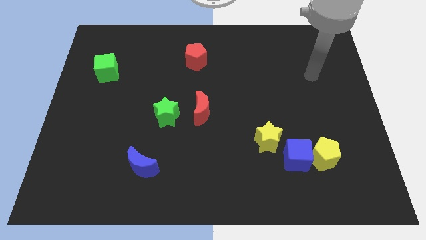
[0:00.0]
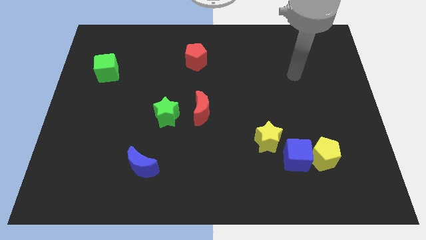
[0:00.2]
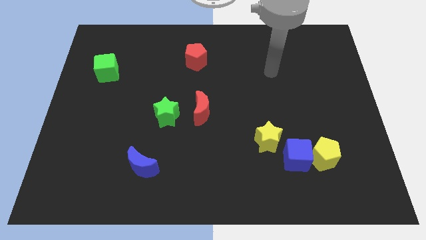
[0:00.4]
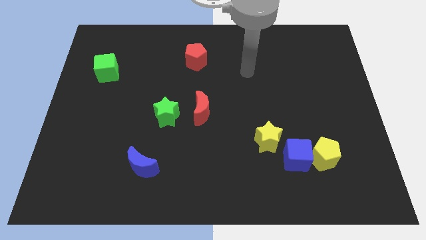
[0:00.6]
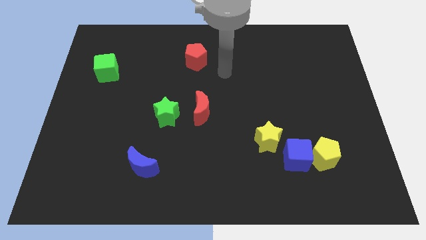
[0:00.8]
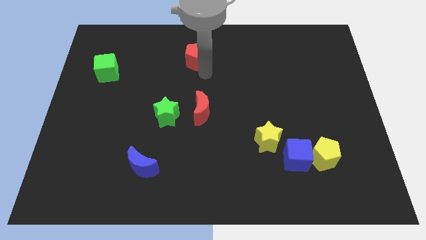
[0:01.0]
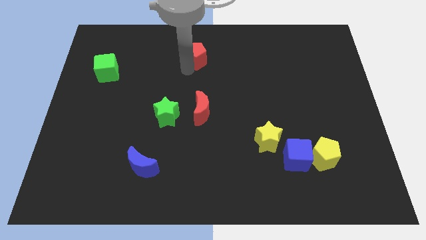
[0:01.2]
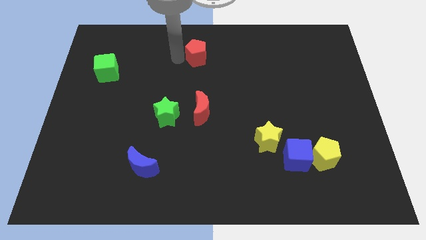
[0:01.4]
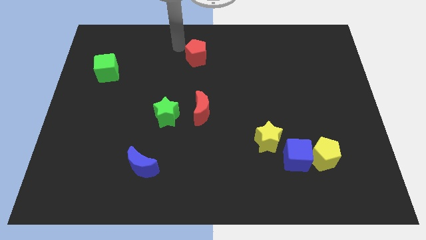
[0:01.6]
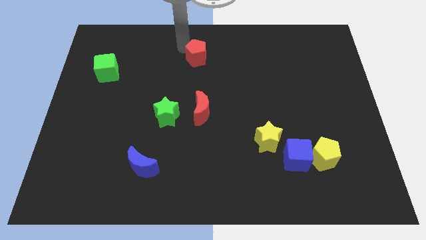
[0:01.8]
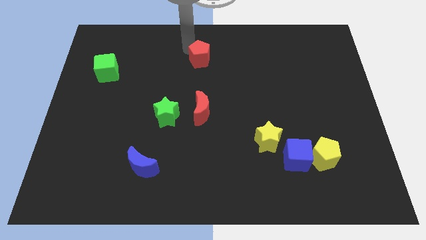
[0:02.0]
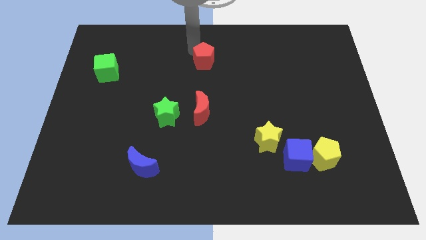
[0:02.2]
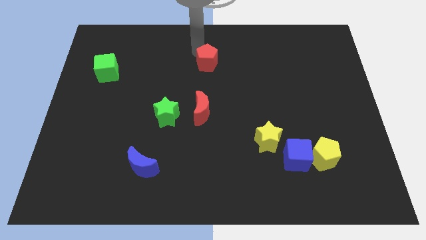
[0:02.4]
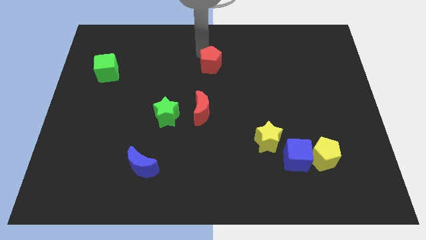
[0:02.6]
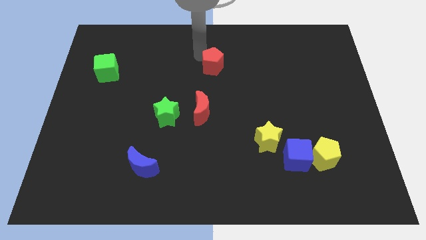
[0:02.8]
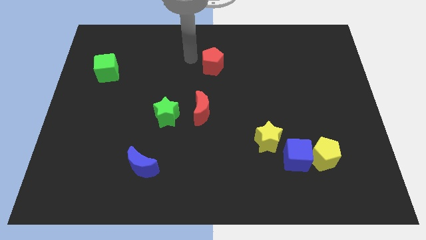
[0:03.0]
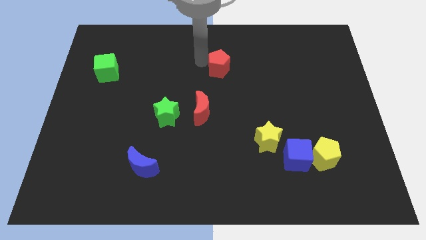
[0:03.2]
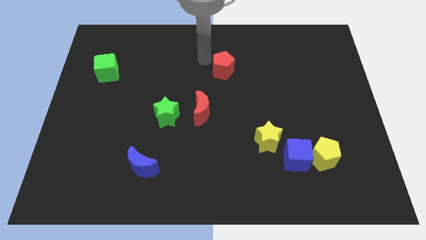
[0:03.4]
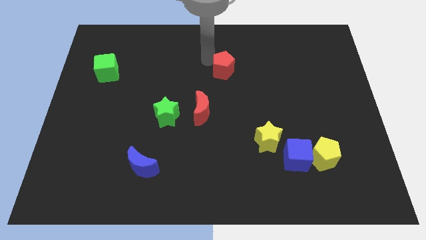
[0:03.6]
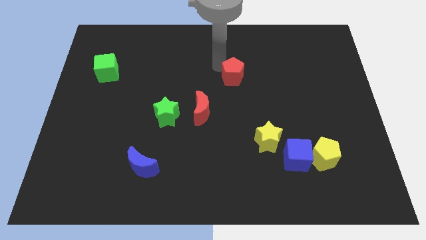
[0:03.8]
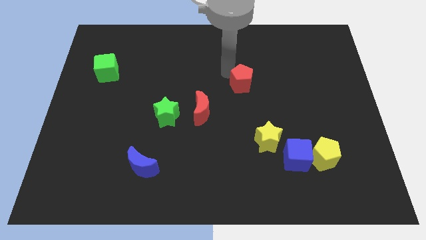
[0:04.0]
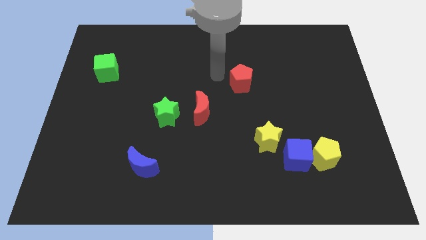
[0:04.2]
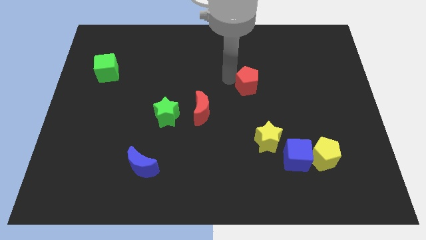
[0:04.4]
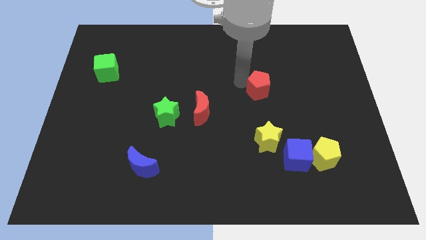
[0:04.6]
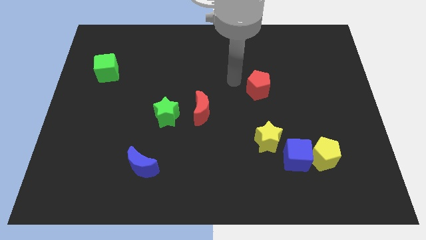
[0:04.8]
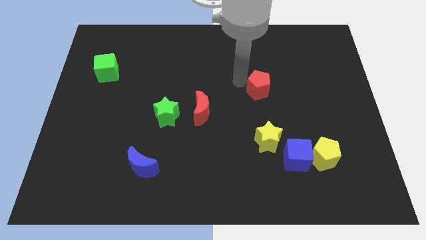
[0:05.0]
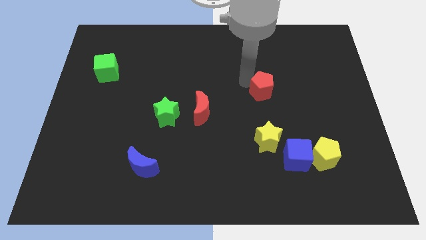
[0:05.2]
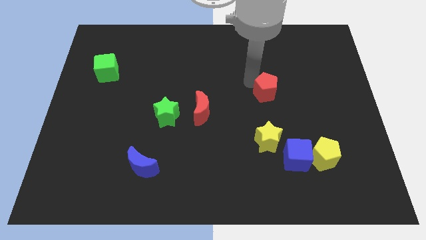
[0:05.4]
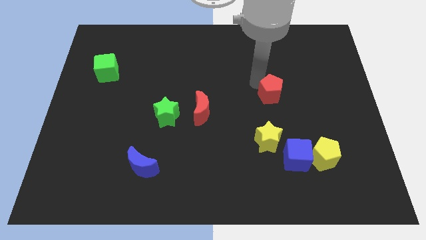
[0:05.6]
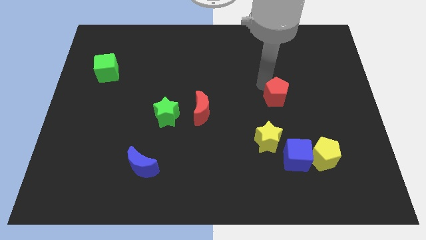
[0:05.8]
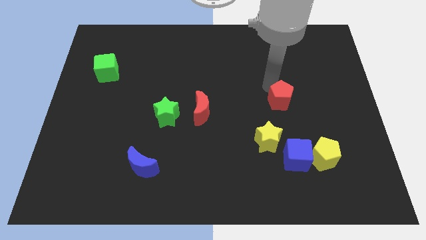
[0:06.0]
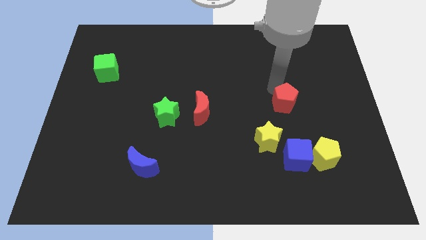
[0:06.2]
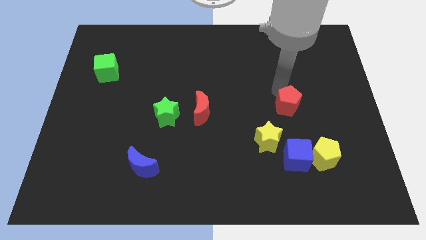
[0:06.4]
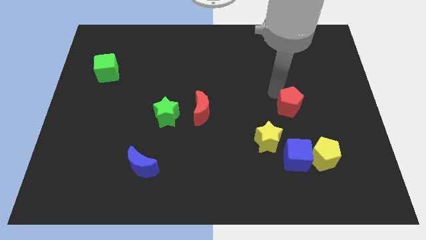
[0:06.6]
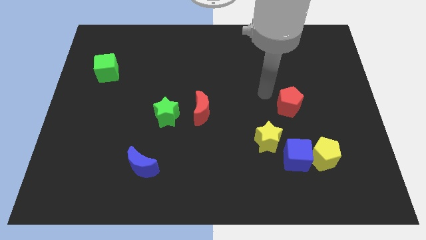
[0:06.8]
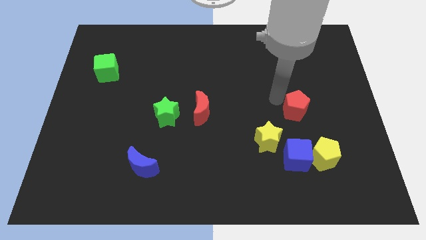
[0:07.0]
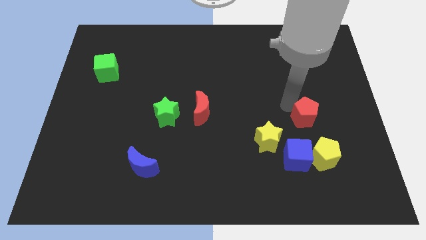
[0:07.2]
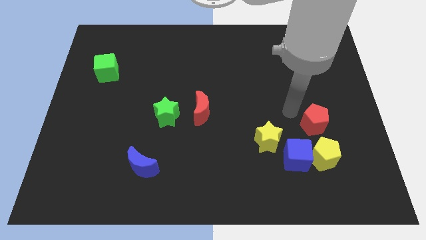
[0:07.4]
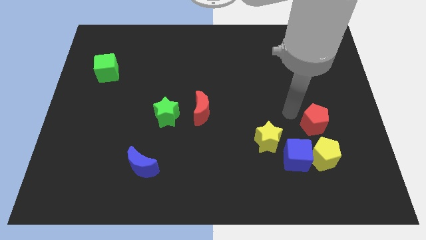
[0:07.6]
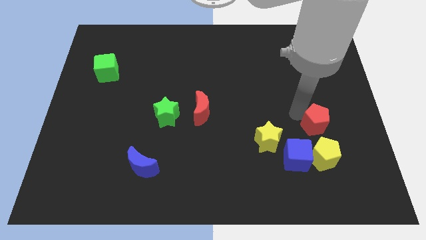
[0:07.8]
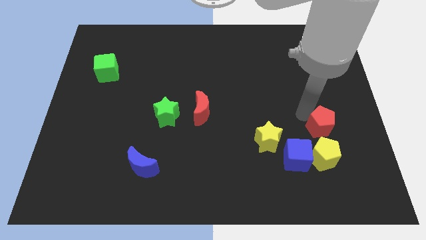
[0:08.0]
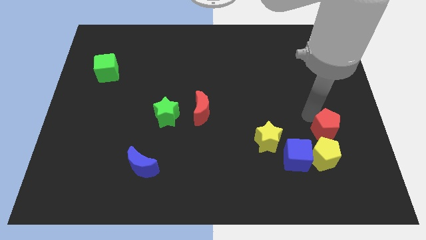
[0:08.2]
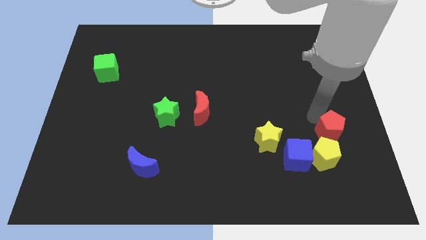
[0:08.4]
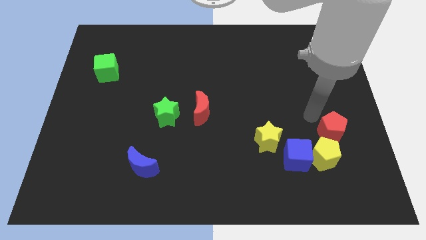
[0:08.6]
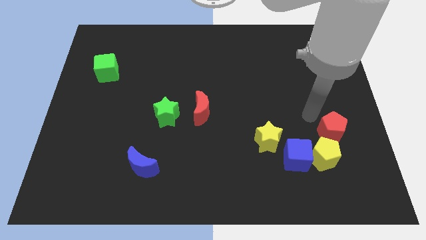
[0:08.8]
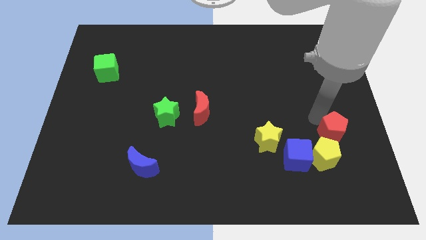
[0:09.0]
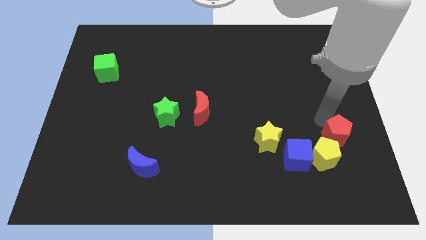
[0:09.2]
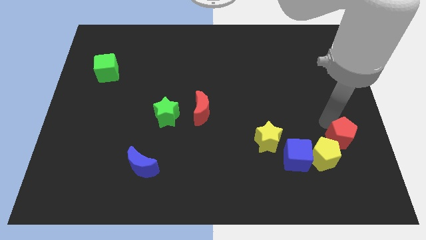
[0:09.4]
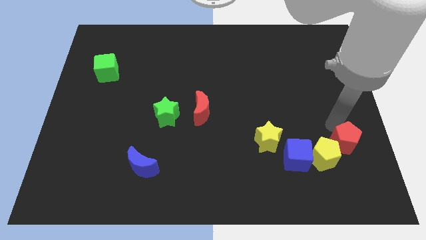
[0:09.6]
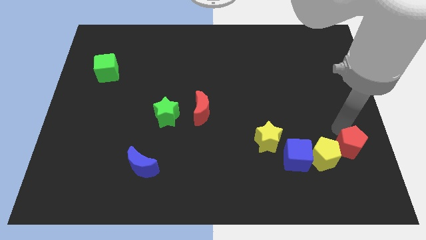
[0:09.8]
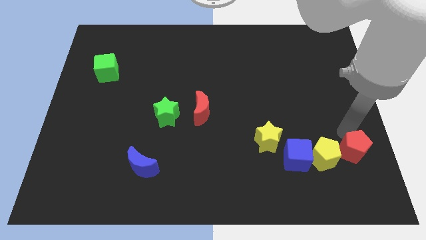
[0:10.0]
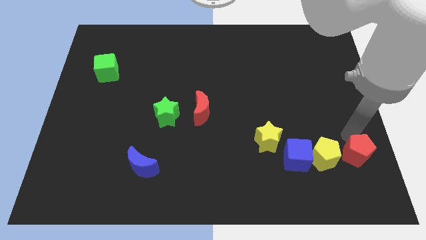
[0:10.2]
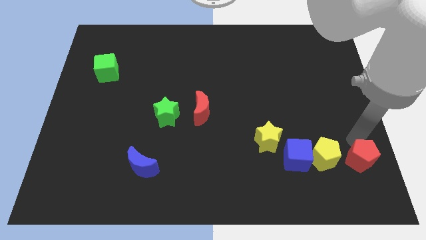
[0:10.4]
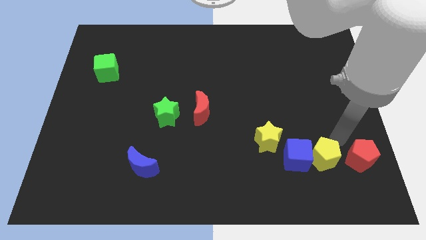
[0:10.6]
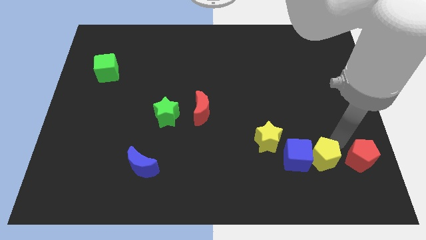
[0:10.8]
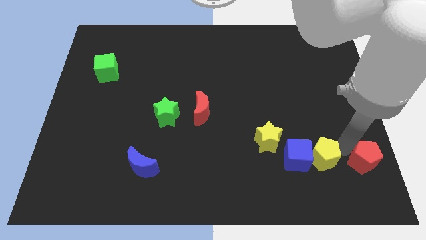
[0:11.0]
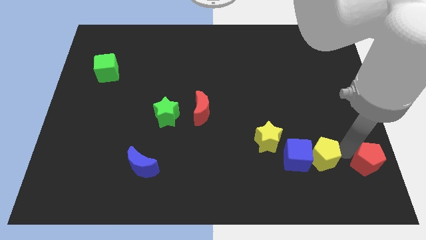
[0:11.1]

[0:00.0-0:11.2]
push the red pentagon to the bottom right
